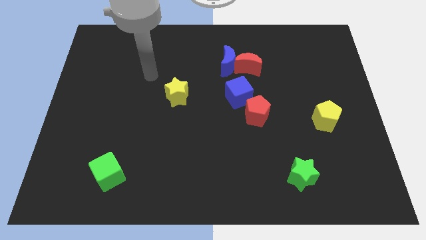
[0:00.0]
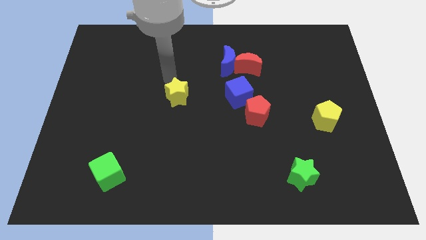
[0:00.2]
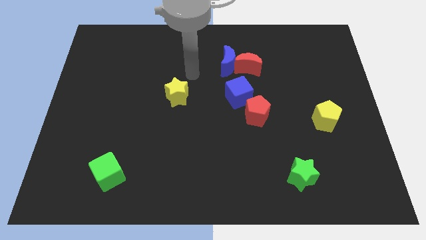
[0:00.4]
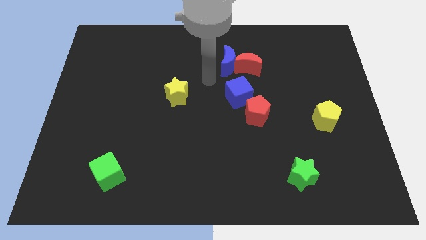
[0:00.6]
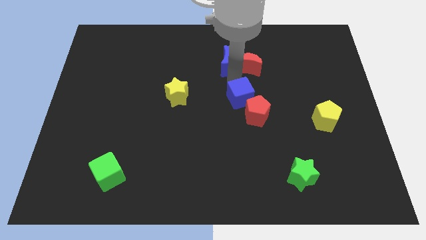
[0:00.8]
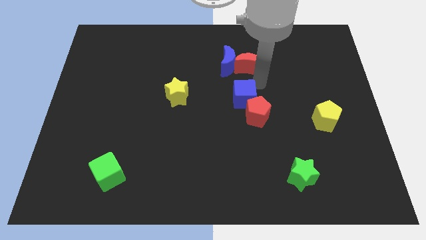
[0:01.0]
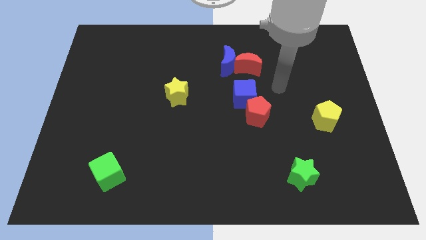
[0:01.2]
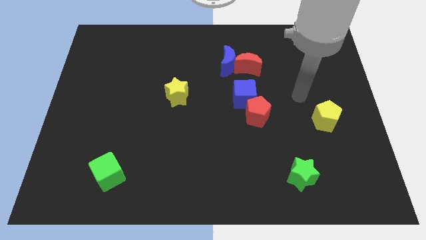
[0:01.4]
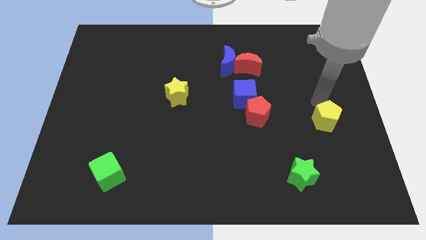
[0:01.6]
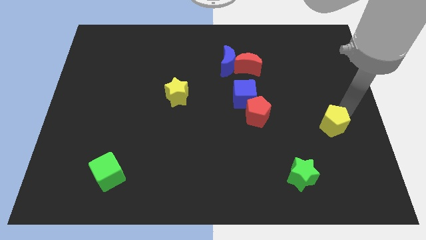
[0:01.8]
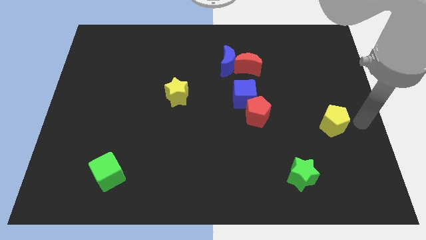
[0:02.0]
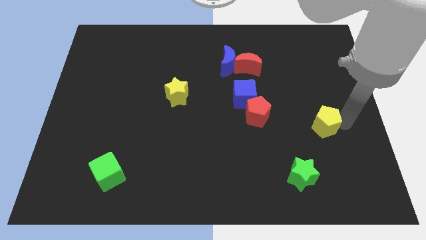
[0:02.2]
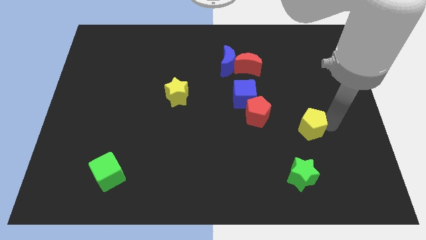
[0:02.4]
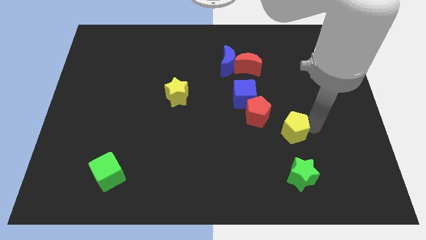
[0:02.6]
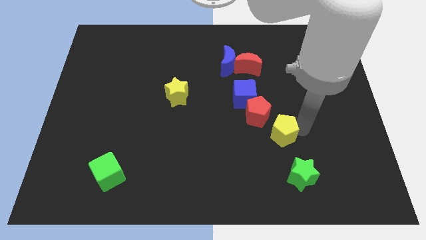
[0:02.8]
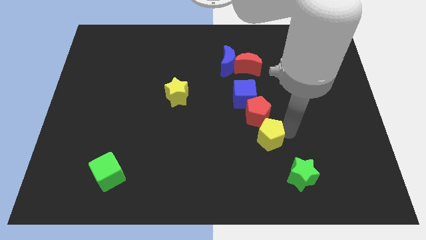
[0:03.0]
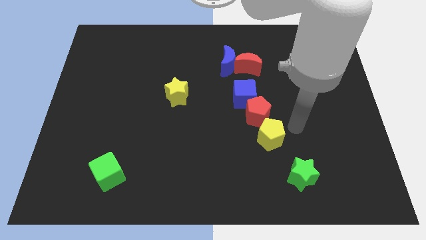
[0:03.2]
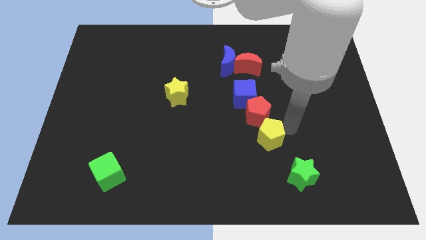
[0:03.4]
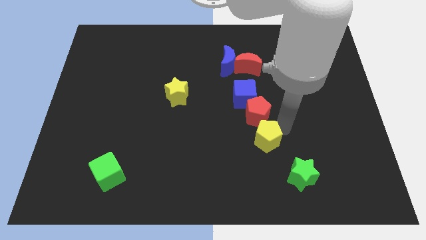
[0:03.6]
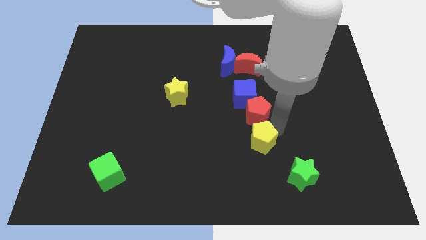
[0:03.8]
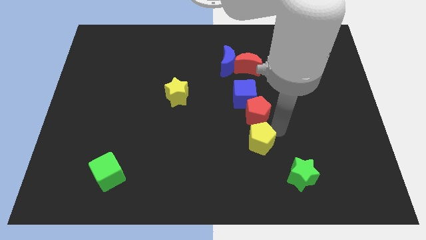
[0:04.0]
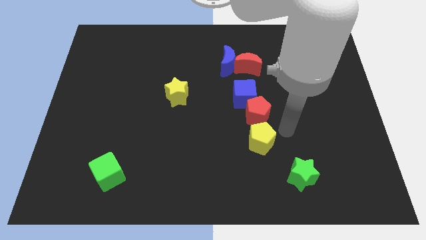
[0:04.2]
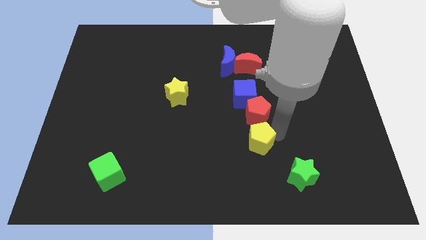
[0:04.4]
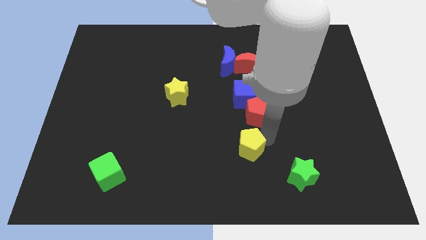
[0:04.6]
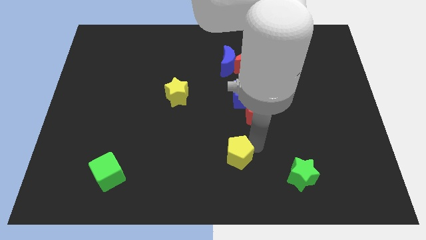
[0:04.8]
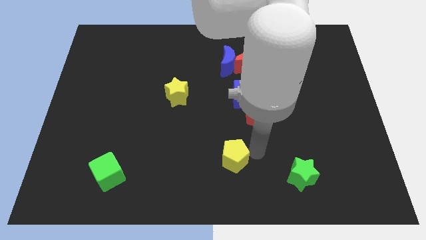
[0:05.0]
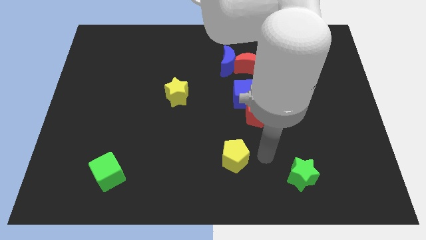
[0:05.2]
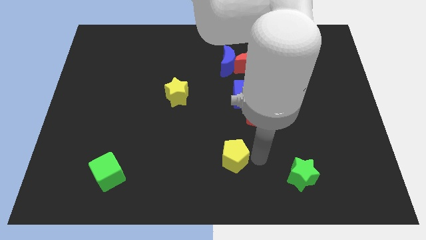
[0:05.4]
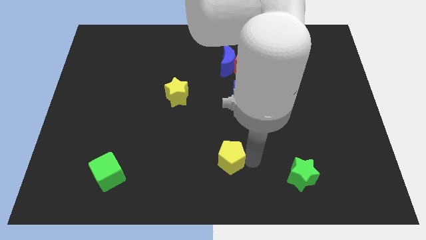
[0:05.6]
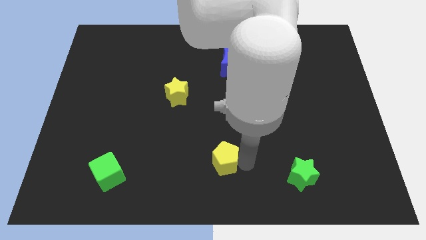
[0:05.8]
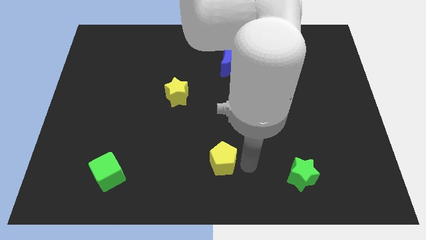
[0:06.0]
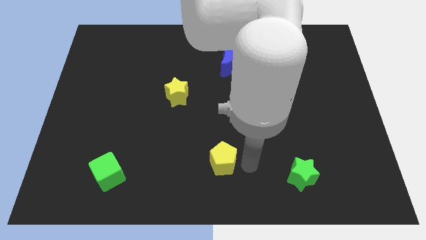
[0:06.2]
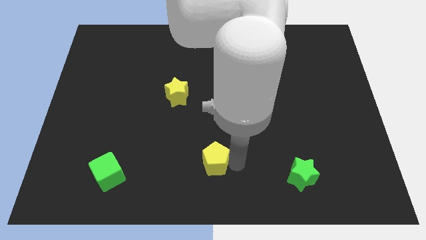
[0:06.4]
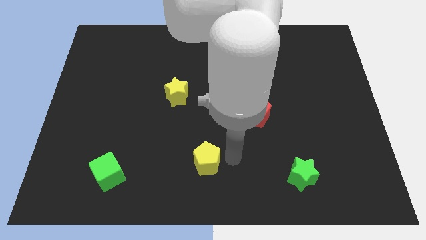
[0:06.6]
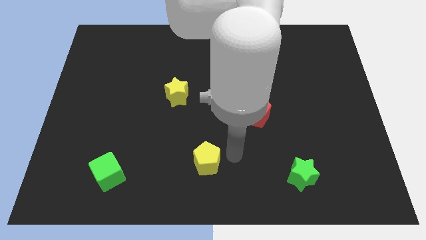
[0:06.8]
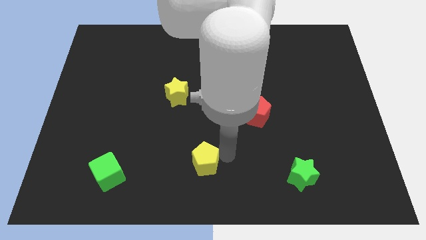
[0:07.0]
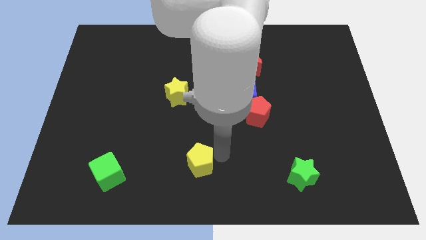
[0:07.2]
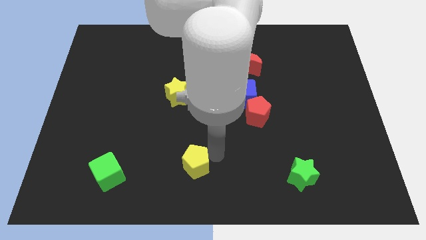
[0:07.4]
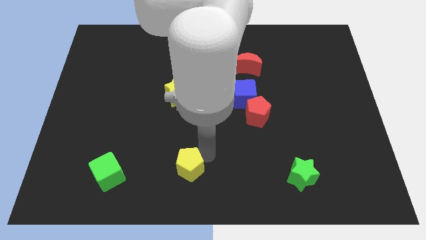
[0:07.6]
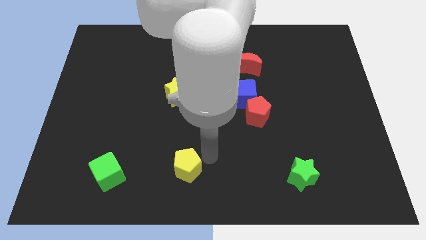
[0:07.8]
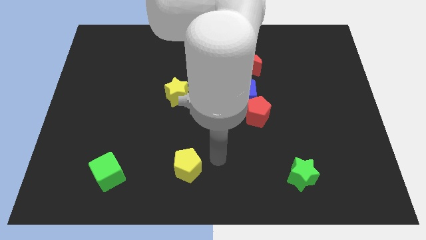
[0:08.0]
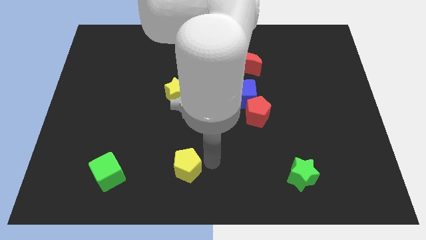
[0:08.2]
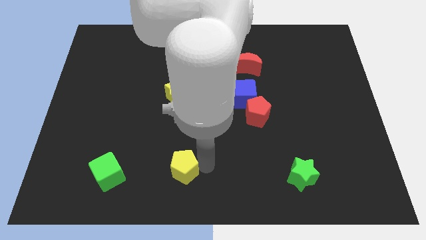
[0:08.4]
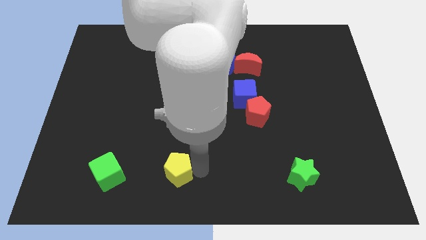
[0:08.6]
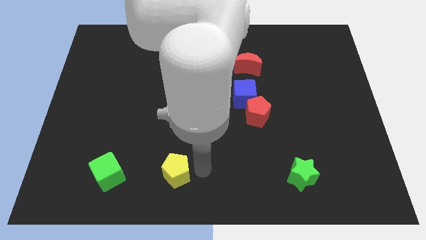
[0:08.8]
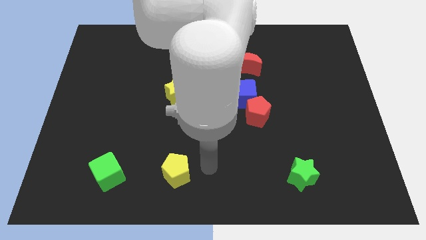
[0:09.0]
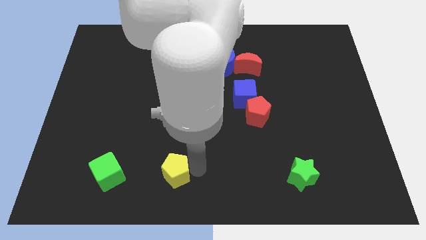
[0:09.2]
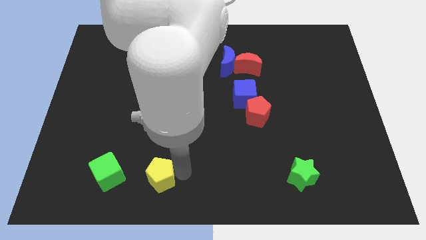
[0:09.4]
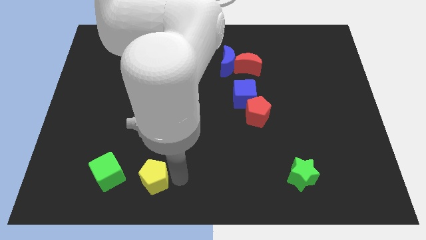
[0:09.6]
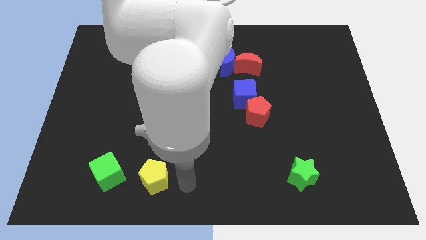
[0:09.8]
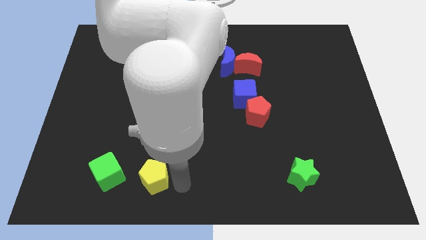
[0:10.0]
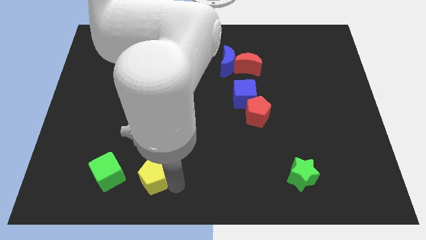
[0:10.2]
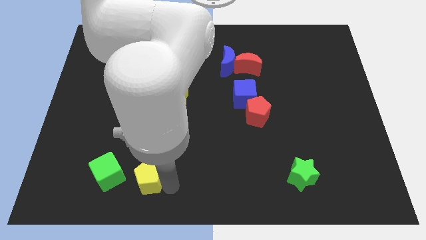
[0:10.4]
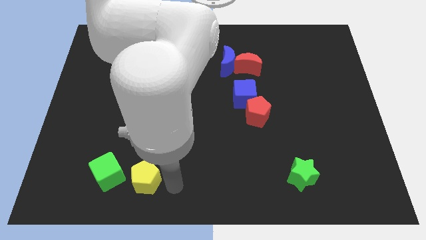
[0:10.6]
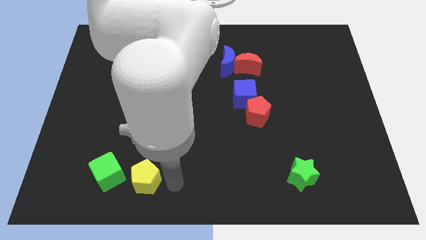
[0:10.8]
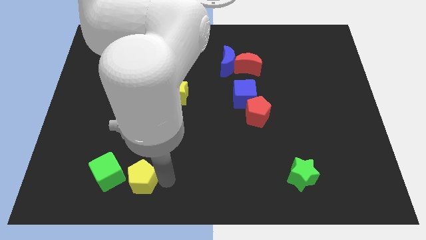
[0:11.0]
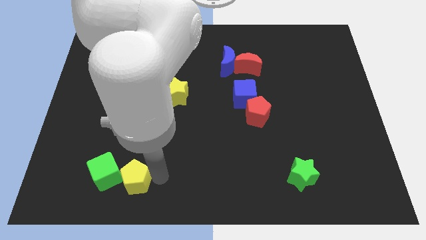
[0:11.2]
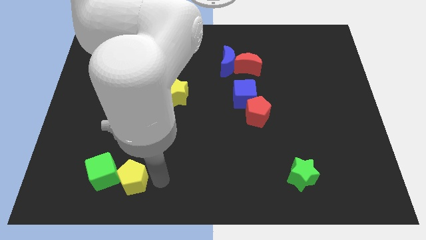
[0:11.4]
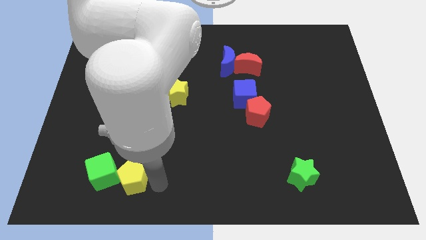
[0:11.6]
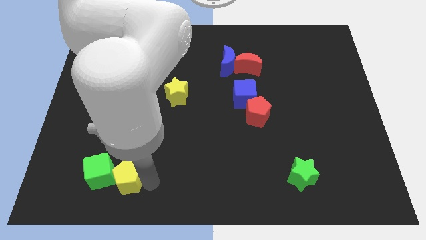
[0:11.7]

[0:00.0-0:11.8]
slide the yellow pentagon next to the green cube

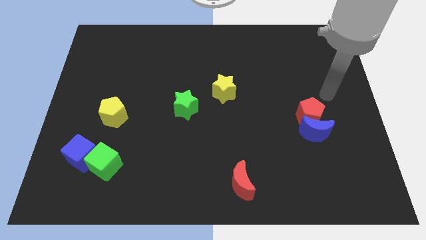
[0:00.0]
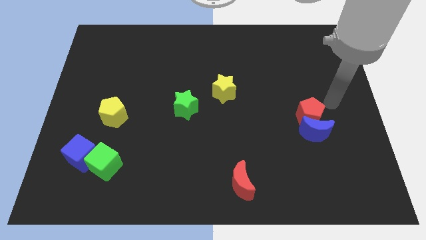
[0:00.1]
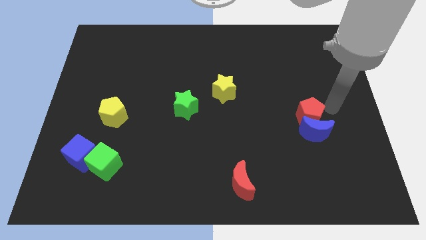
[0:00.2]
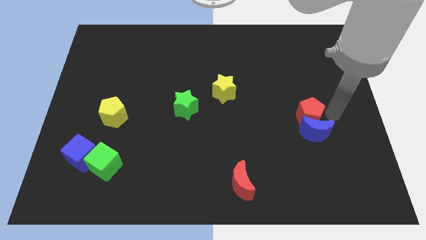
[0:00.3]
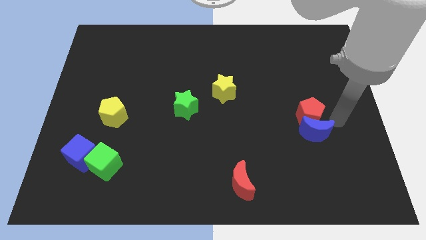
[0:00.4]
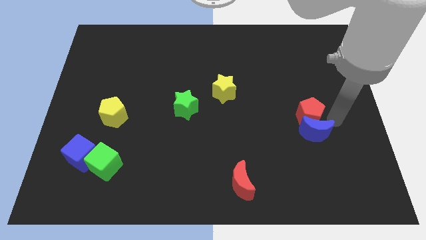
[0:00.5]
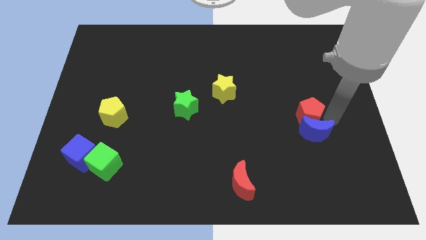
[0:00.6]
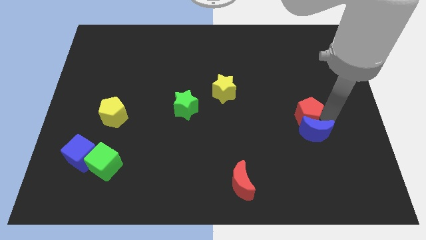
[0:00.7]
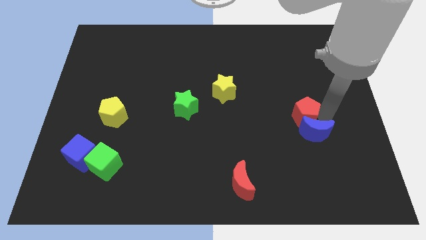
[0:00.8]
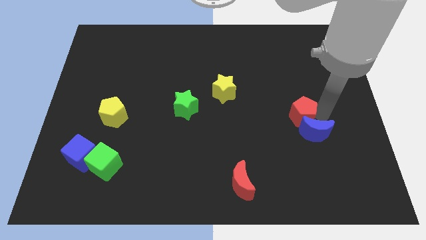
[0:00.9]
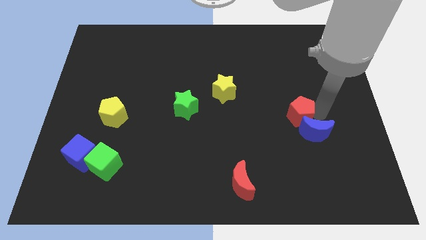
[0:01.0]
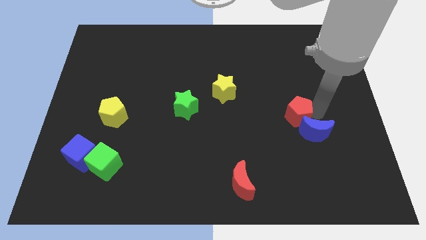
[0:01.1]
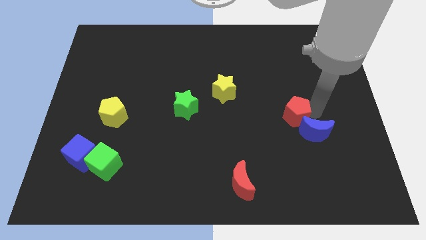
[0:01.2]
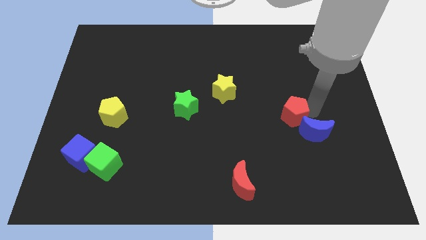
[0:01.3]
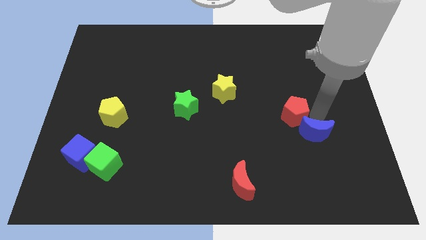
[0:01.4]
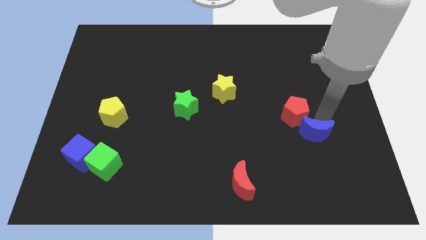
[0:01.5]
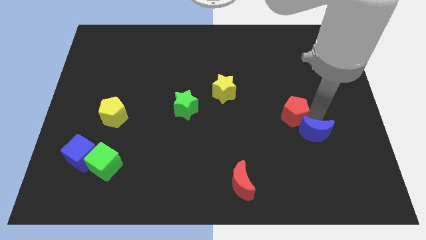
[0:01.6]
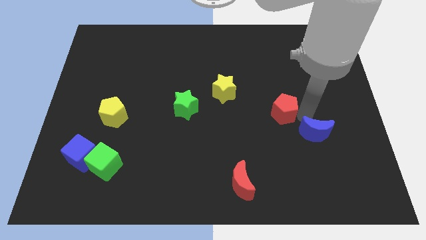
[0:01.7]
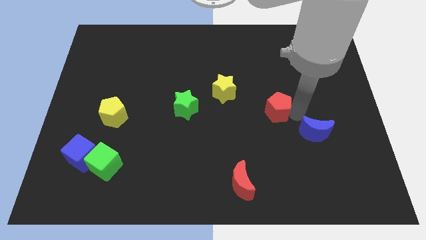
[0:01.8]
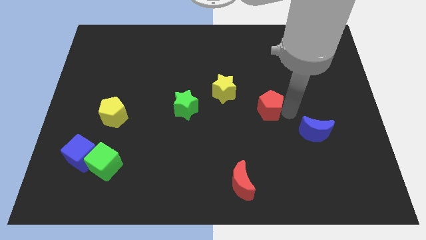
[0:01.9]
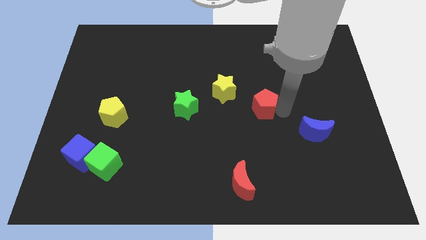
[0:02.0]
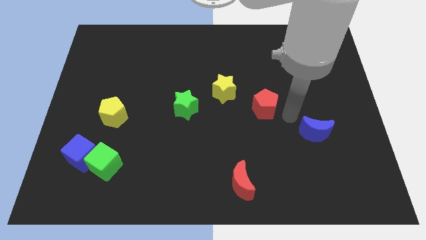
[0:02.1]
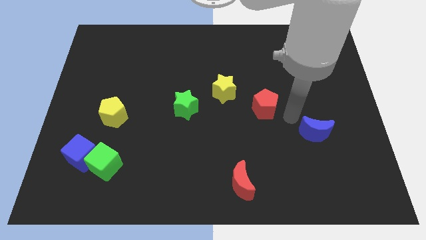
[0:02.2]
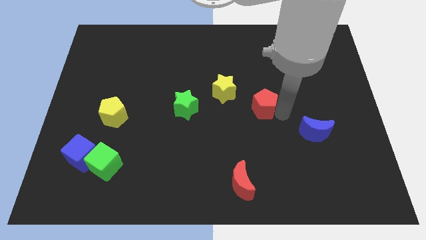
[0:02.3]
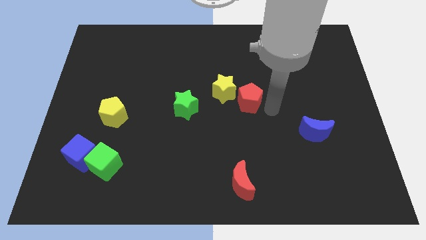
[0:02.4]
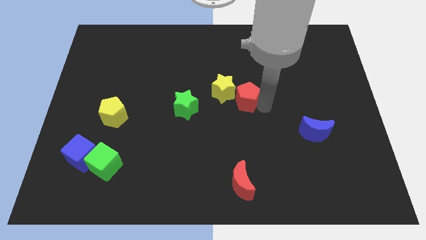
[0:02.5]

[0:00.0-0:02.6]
slide the red pentagon to the yellow star
